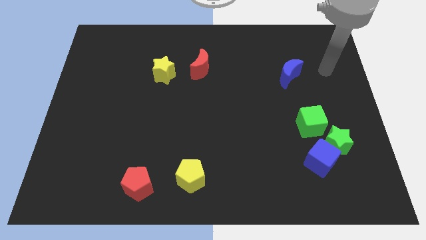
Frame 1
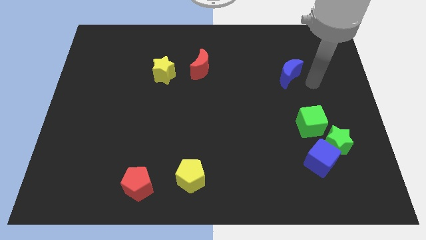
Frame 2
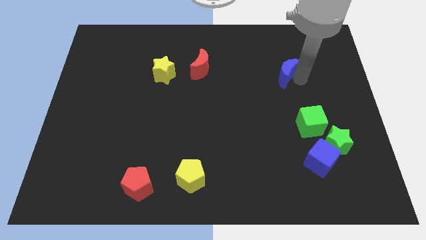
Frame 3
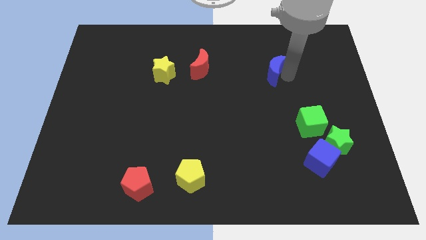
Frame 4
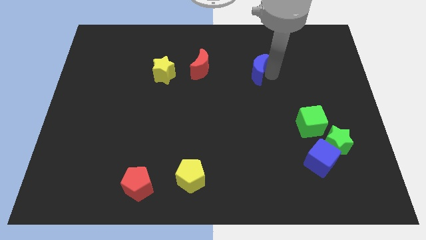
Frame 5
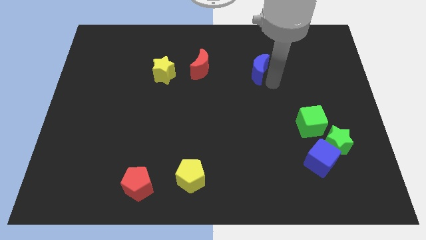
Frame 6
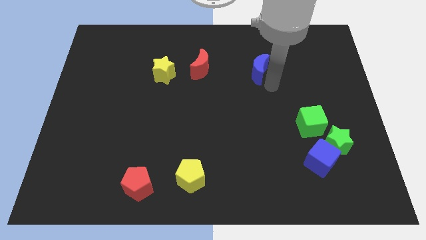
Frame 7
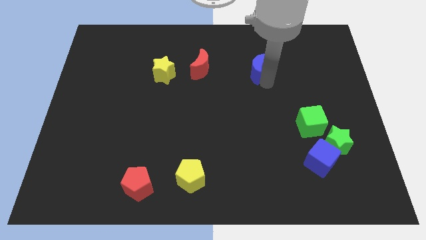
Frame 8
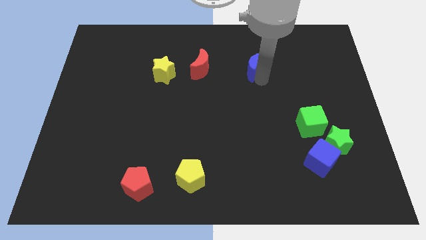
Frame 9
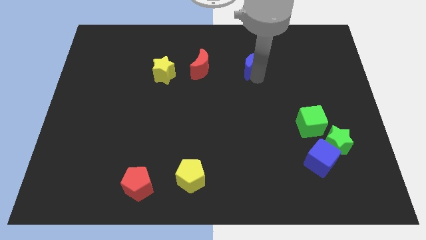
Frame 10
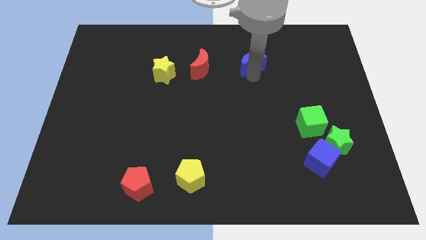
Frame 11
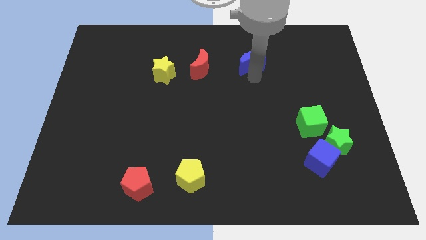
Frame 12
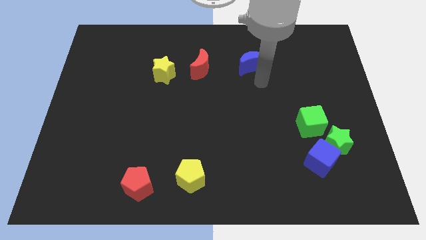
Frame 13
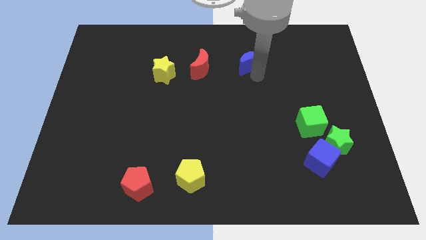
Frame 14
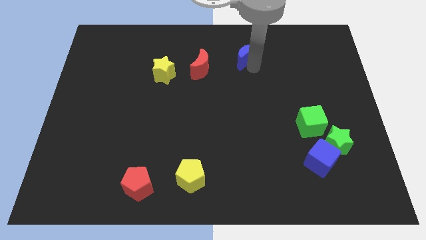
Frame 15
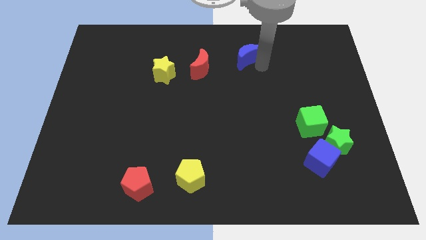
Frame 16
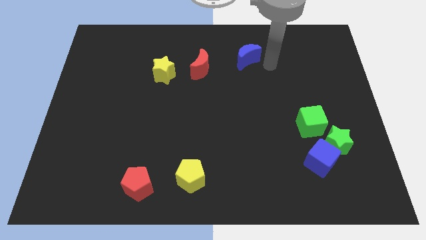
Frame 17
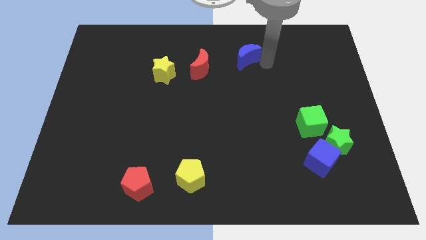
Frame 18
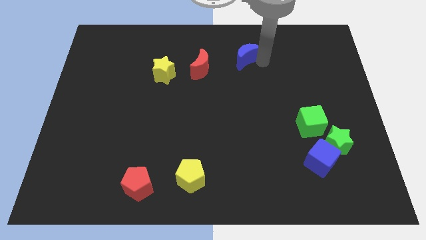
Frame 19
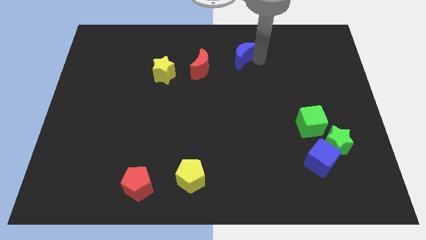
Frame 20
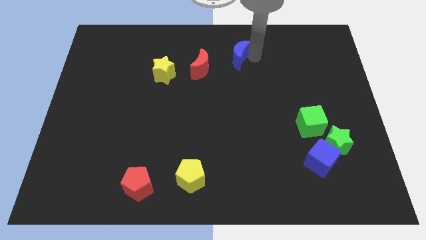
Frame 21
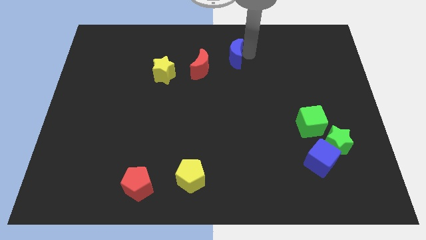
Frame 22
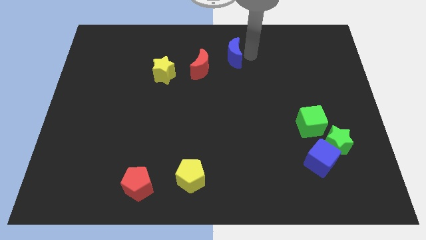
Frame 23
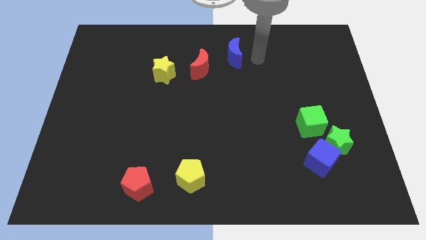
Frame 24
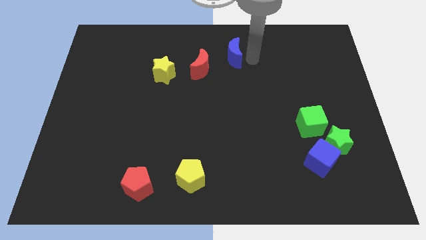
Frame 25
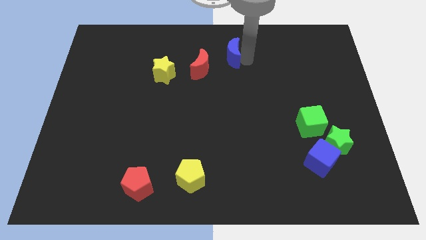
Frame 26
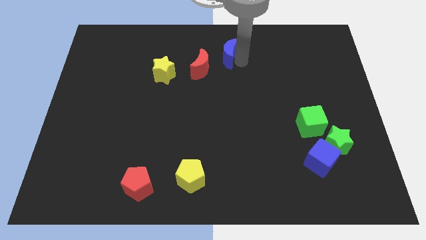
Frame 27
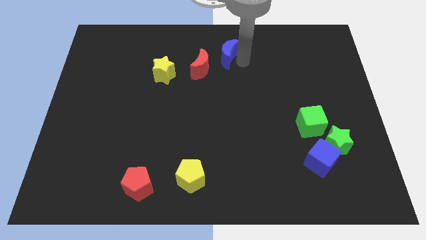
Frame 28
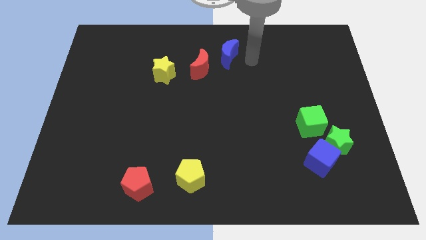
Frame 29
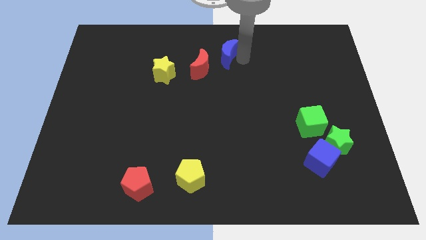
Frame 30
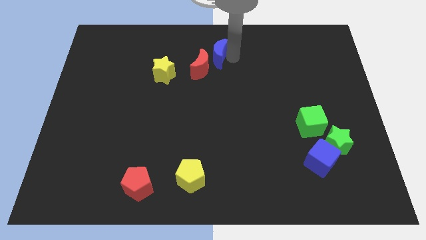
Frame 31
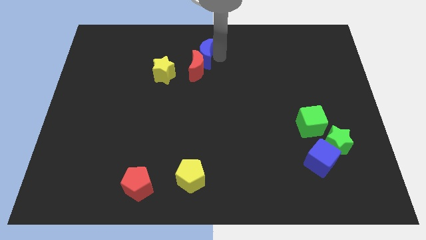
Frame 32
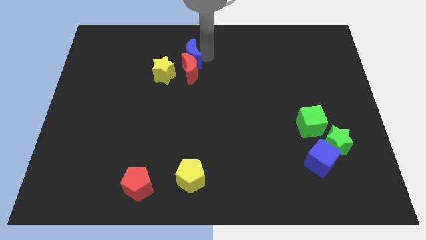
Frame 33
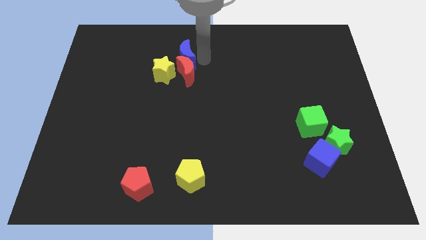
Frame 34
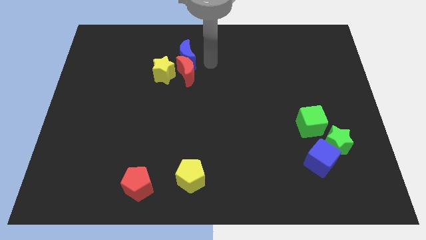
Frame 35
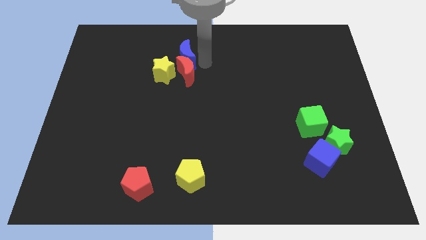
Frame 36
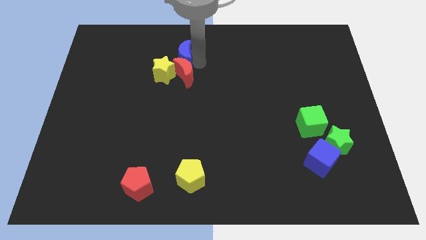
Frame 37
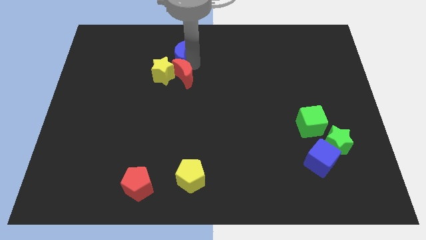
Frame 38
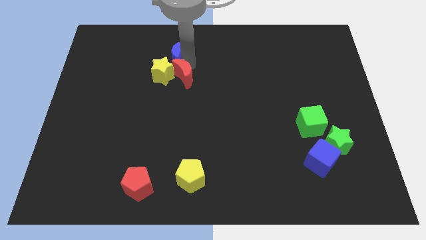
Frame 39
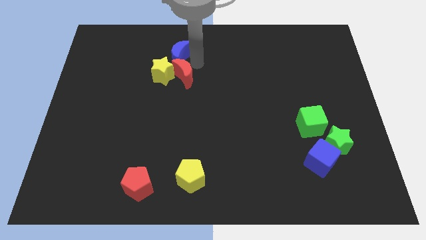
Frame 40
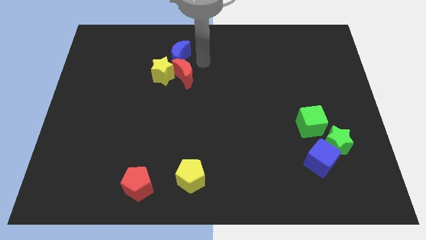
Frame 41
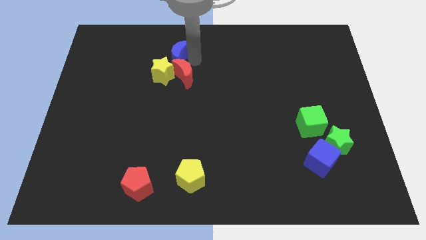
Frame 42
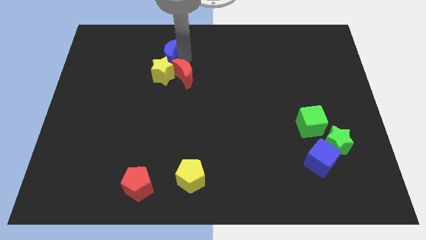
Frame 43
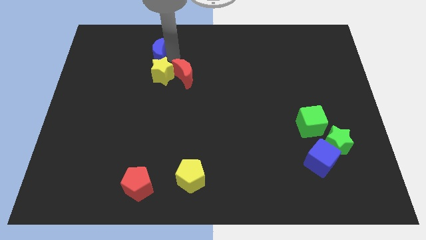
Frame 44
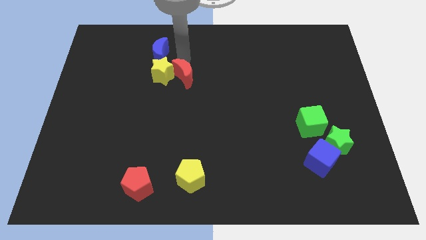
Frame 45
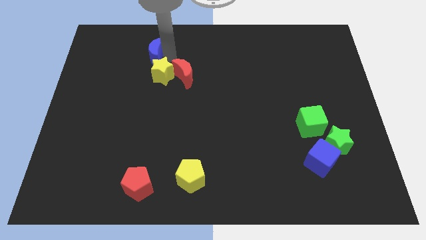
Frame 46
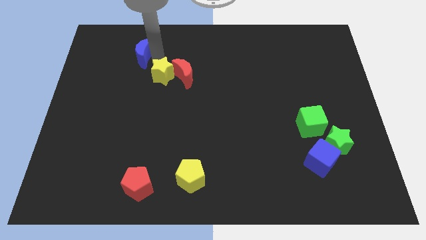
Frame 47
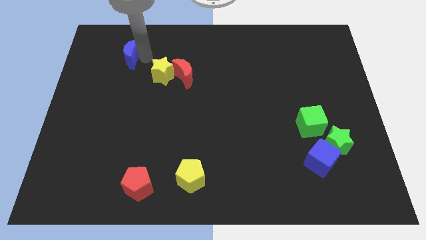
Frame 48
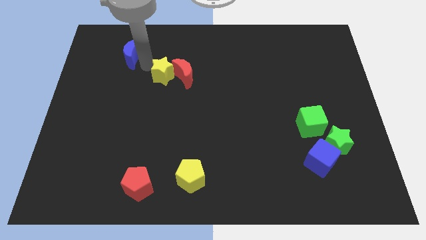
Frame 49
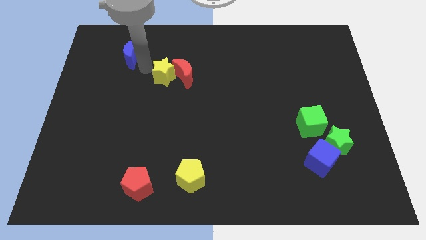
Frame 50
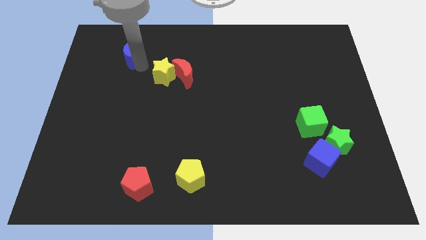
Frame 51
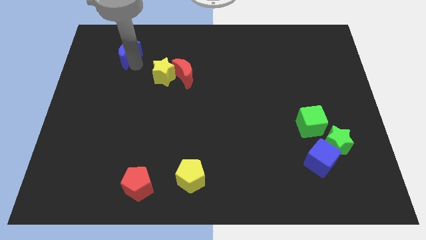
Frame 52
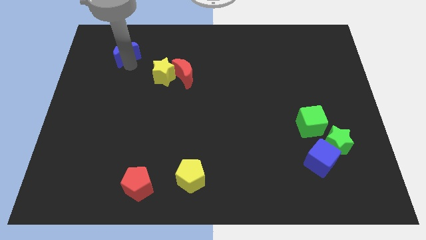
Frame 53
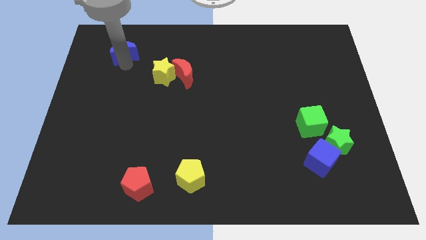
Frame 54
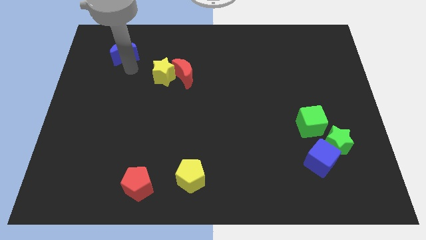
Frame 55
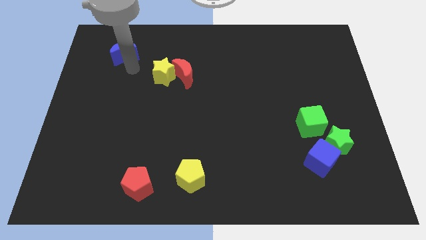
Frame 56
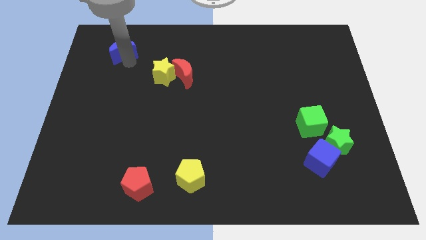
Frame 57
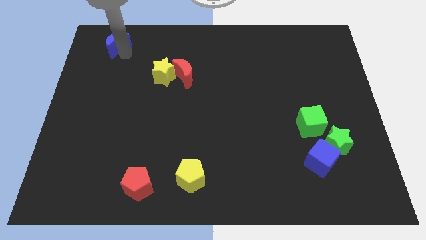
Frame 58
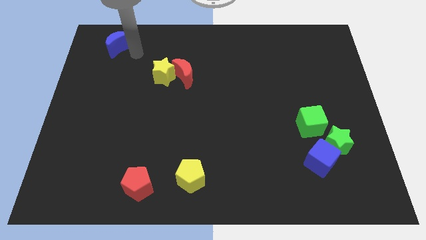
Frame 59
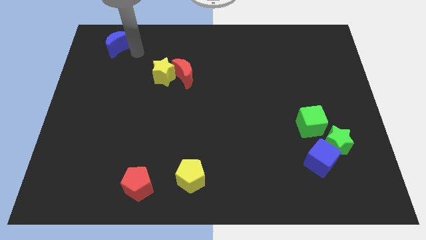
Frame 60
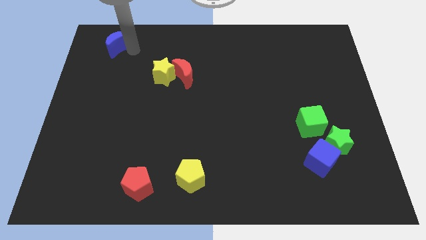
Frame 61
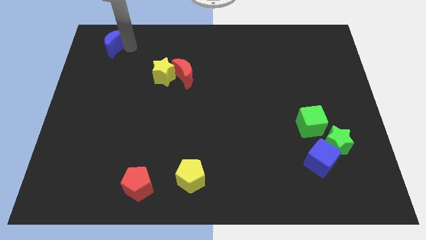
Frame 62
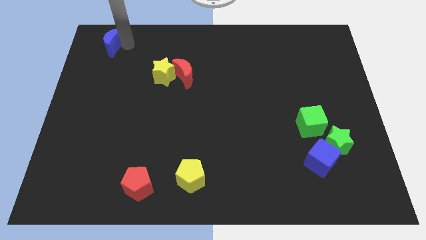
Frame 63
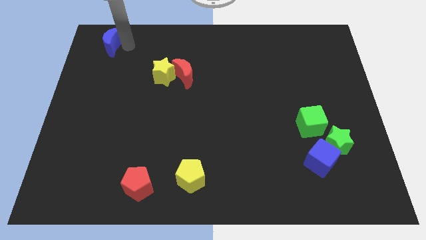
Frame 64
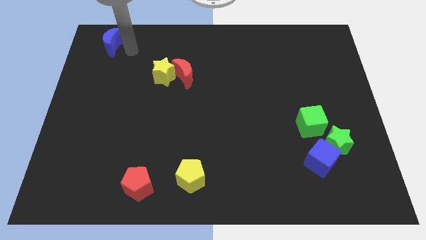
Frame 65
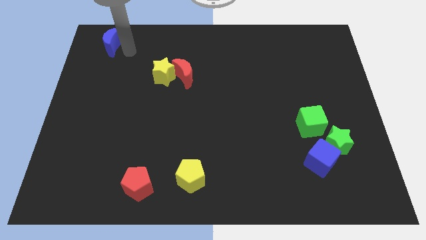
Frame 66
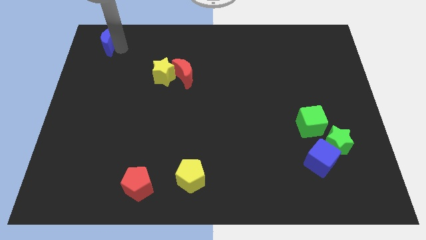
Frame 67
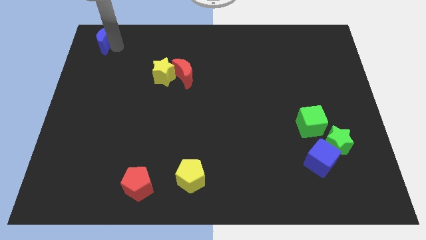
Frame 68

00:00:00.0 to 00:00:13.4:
move the blue moon to the top left corner
